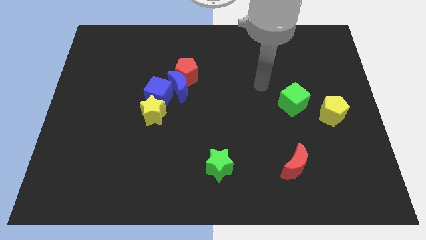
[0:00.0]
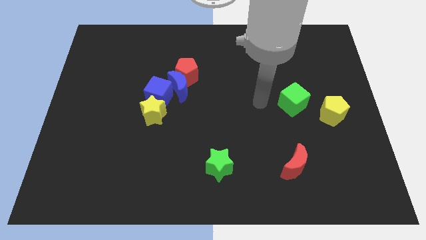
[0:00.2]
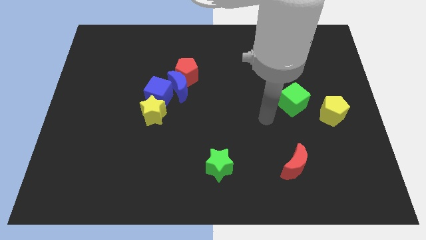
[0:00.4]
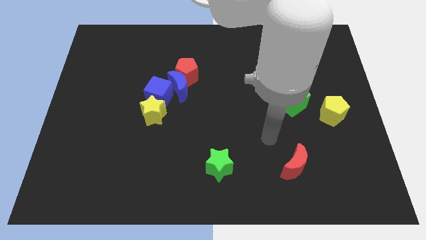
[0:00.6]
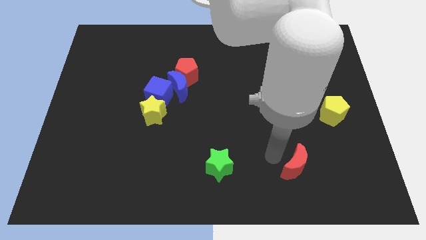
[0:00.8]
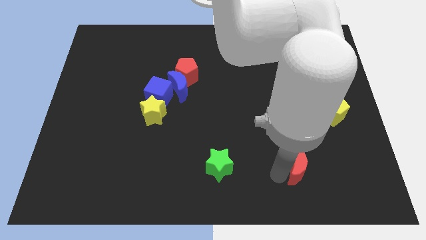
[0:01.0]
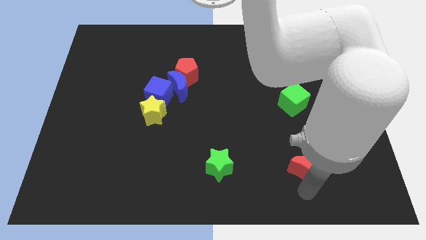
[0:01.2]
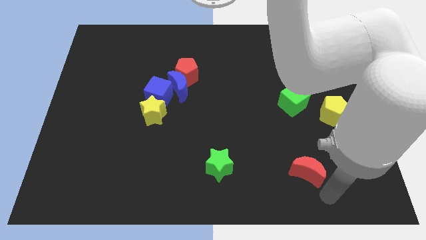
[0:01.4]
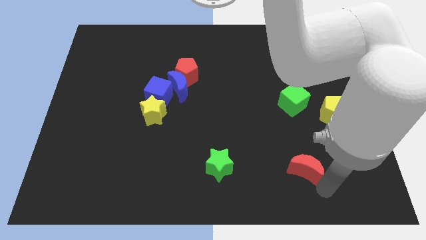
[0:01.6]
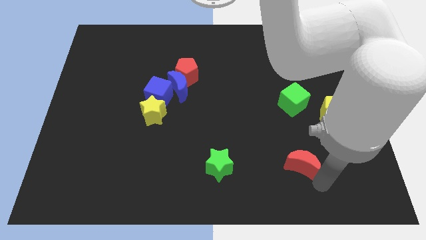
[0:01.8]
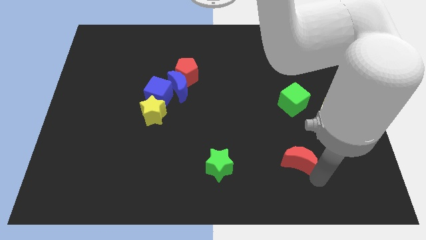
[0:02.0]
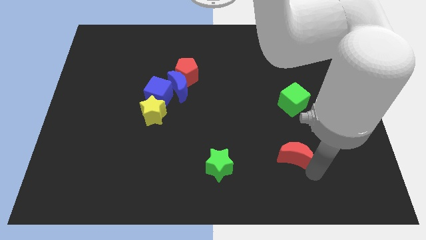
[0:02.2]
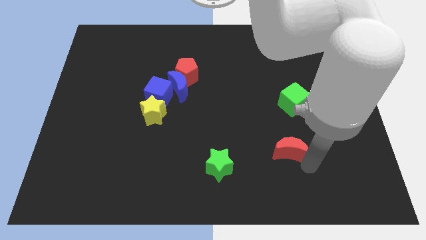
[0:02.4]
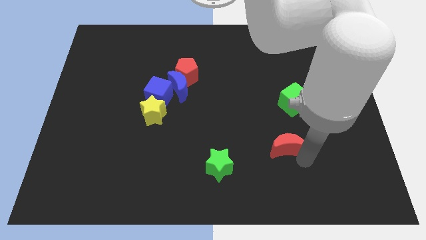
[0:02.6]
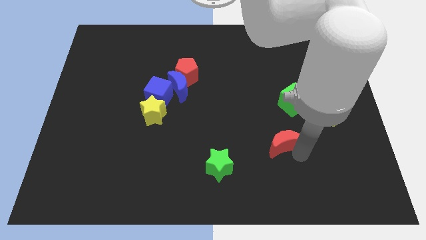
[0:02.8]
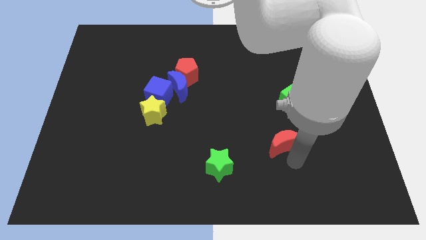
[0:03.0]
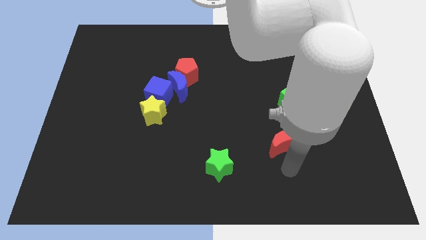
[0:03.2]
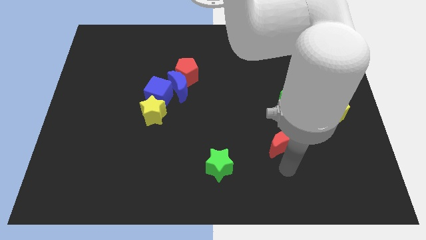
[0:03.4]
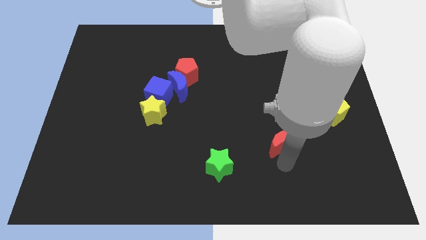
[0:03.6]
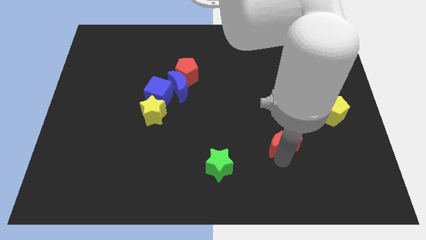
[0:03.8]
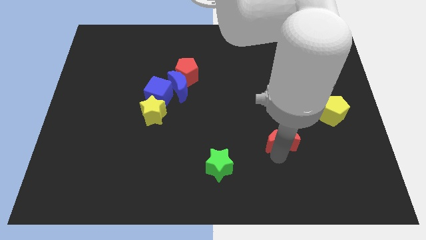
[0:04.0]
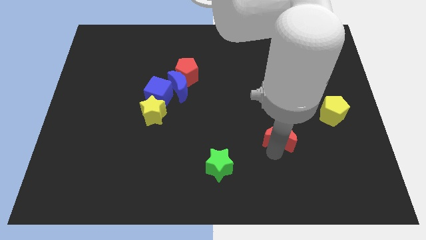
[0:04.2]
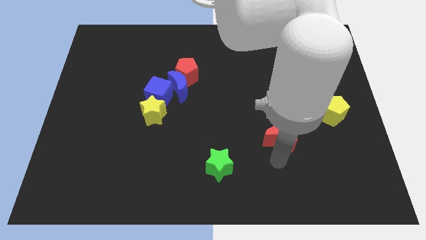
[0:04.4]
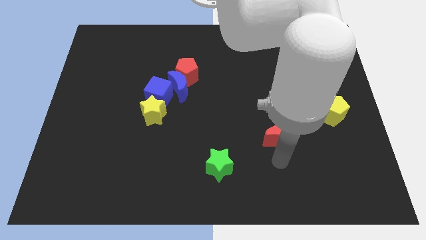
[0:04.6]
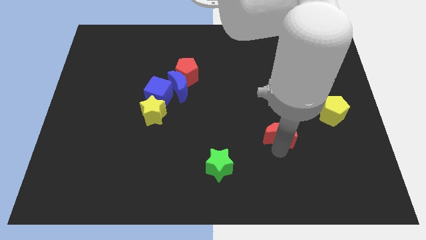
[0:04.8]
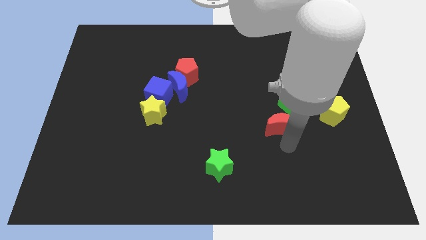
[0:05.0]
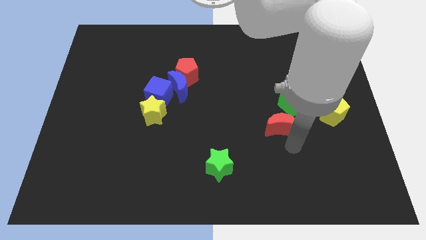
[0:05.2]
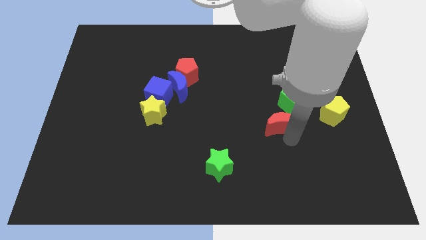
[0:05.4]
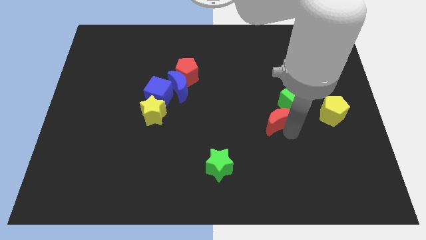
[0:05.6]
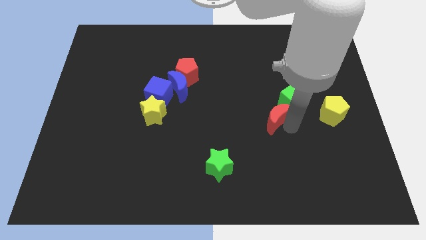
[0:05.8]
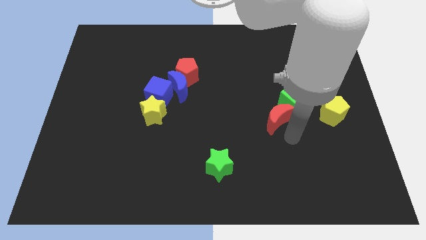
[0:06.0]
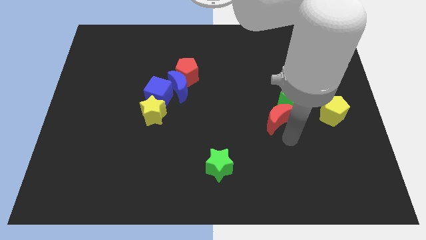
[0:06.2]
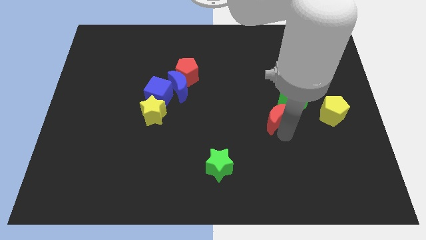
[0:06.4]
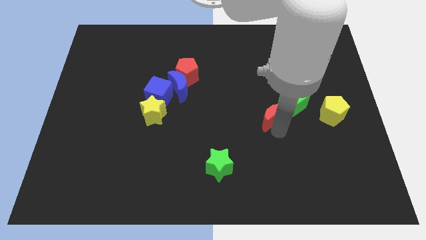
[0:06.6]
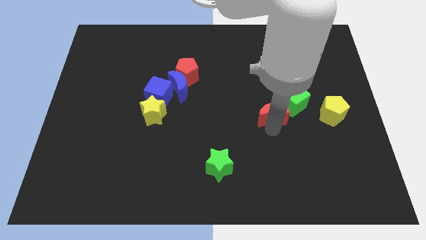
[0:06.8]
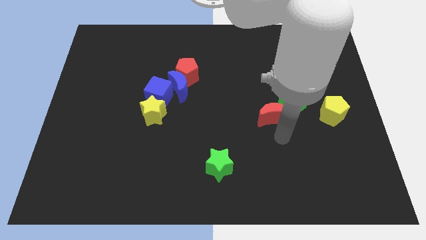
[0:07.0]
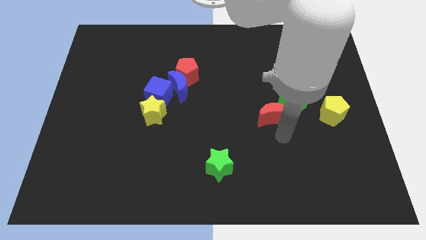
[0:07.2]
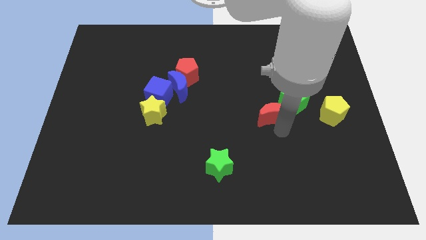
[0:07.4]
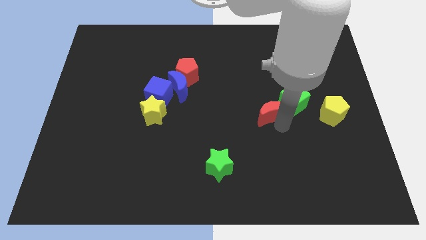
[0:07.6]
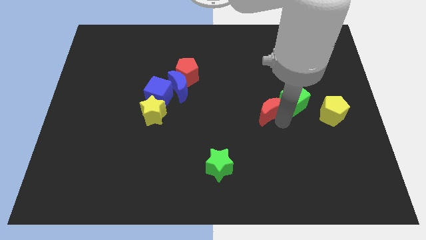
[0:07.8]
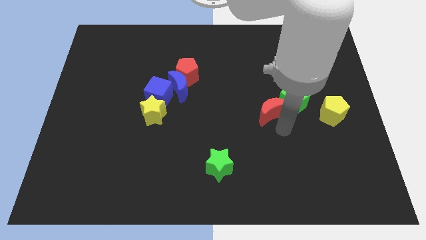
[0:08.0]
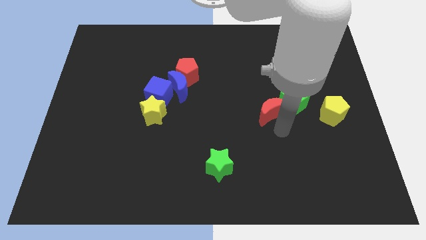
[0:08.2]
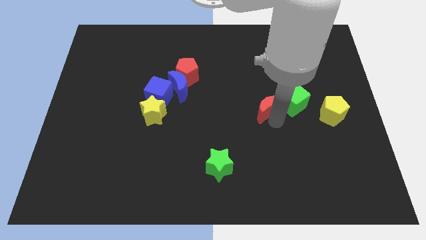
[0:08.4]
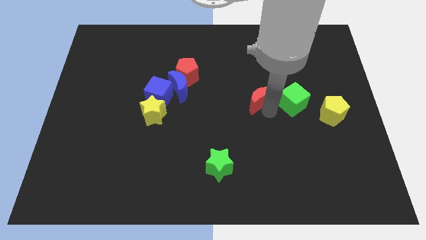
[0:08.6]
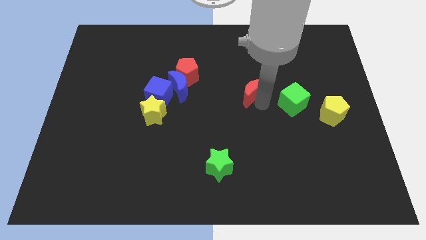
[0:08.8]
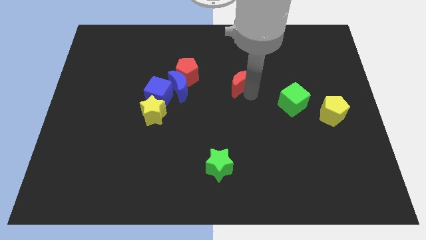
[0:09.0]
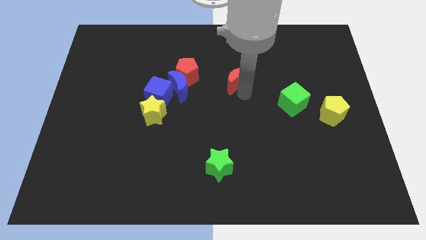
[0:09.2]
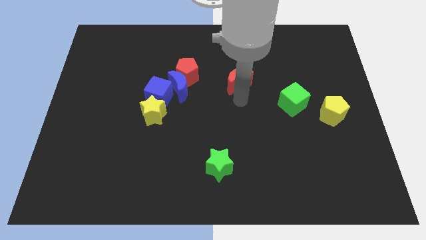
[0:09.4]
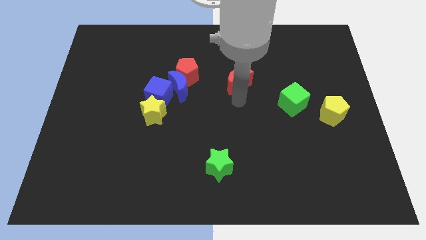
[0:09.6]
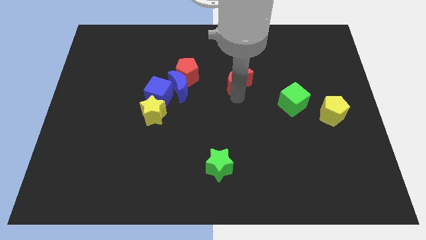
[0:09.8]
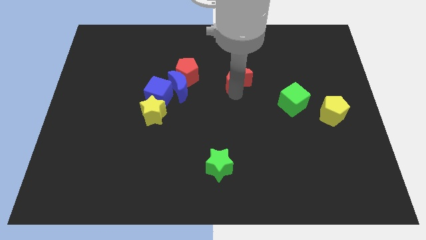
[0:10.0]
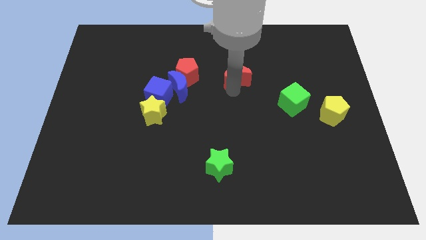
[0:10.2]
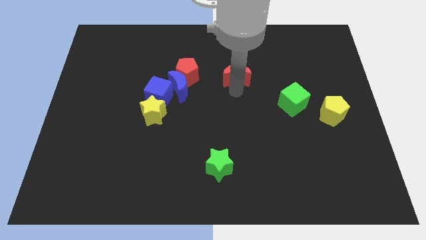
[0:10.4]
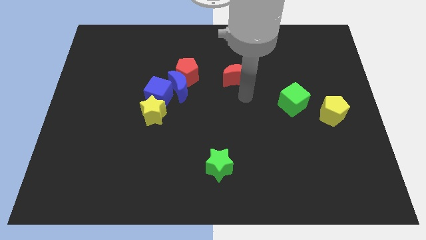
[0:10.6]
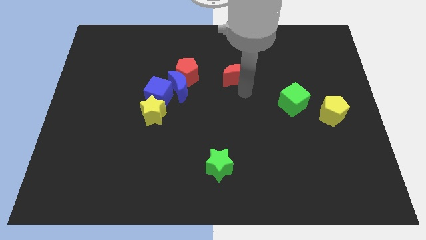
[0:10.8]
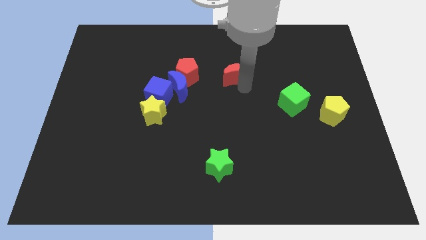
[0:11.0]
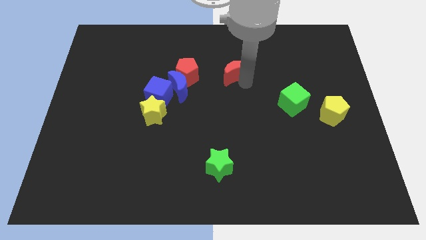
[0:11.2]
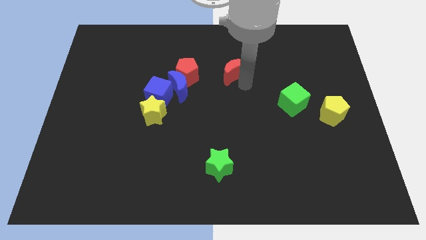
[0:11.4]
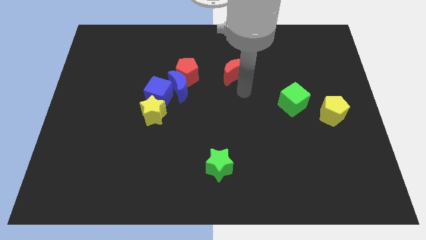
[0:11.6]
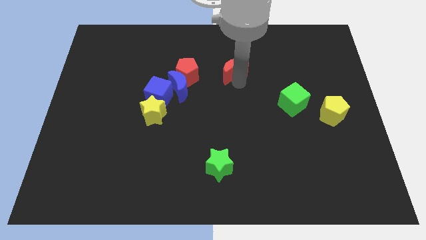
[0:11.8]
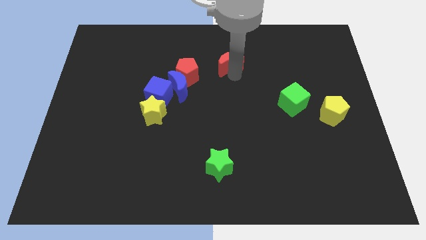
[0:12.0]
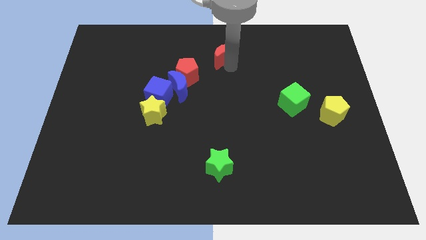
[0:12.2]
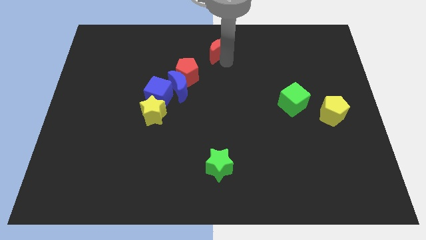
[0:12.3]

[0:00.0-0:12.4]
move the red moon to the towards your base

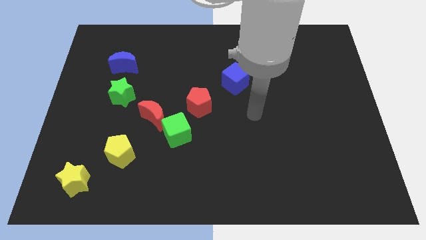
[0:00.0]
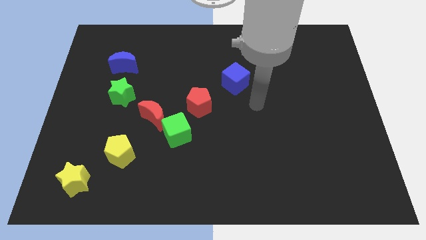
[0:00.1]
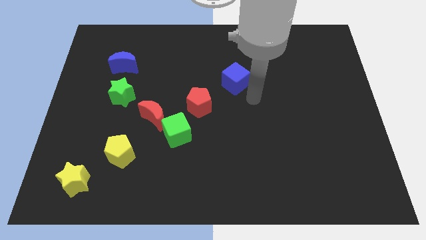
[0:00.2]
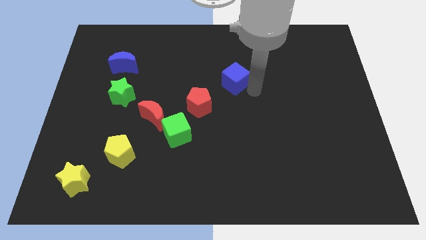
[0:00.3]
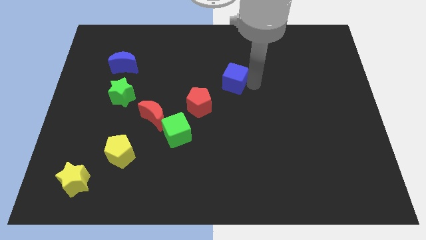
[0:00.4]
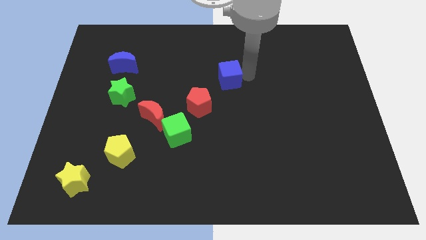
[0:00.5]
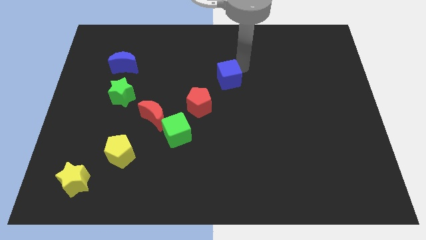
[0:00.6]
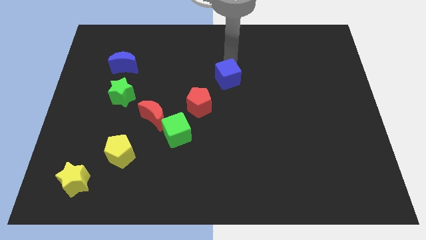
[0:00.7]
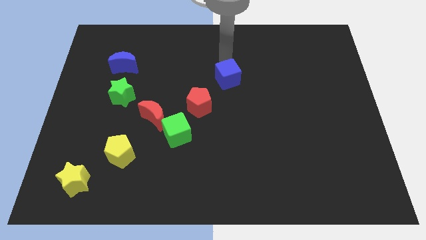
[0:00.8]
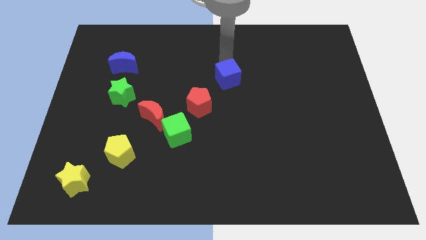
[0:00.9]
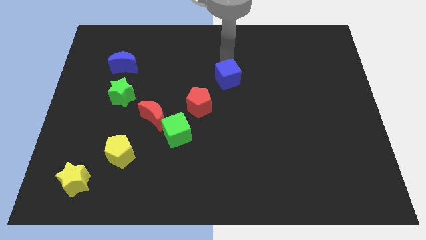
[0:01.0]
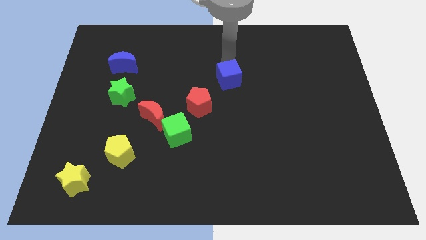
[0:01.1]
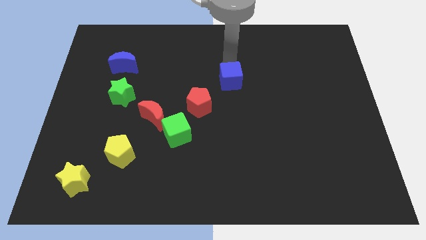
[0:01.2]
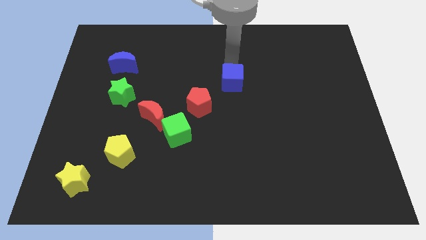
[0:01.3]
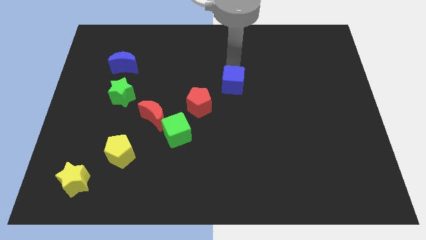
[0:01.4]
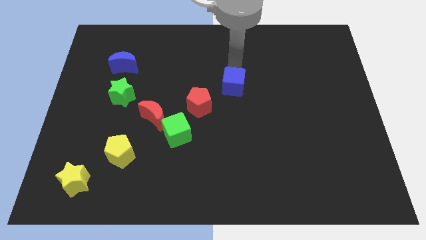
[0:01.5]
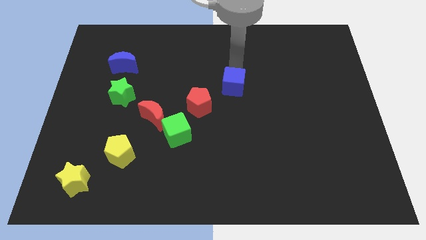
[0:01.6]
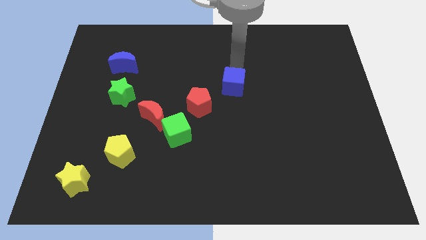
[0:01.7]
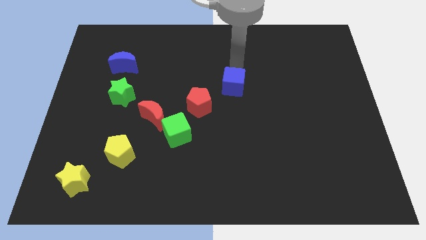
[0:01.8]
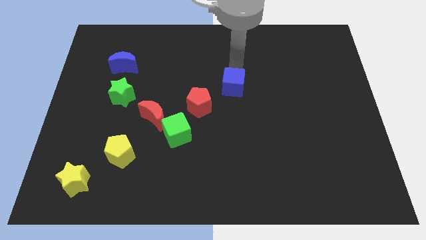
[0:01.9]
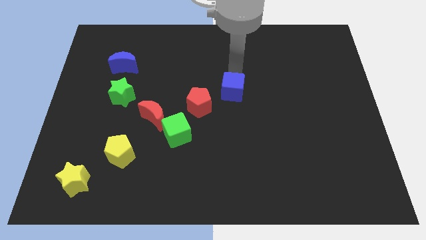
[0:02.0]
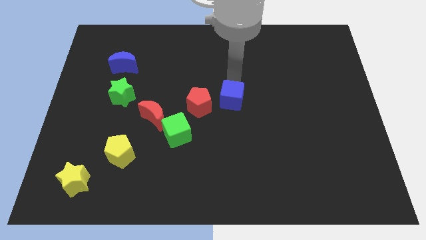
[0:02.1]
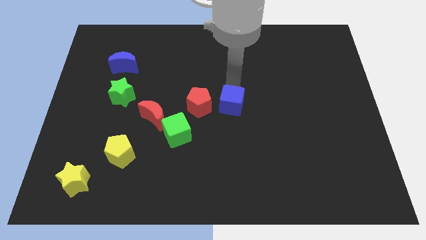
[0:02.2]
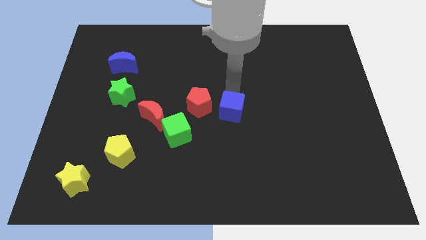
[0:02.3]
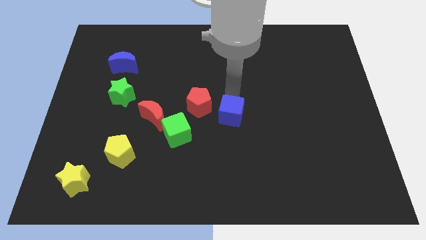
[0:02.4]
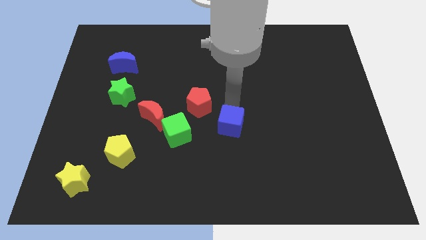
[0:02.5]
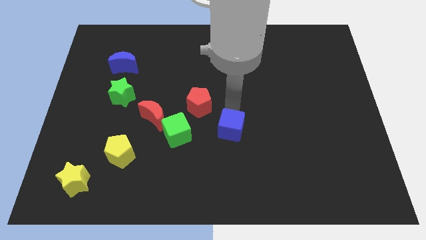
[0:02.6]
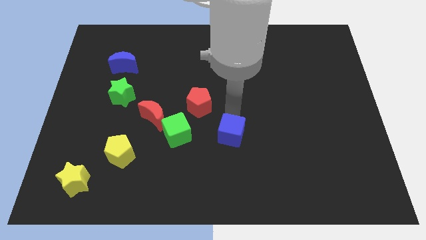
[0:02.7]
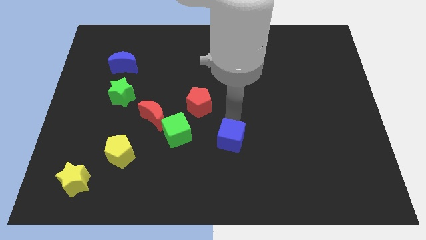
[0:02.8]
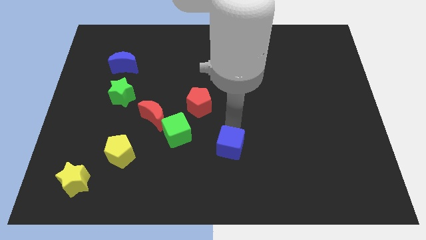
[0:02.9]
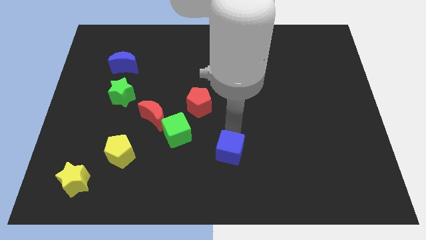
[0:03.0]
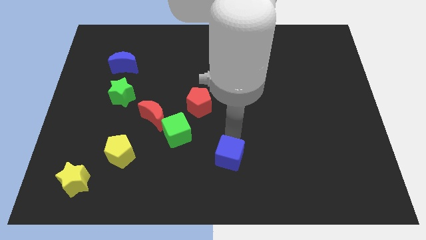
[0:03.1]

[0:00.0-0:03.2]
push the blue cube to the bottom side
